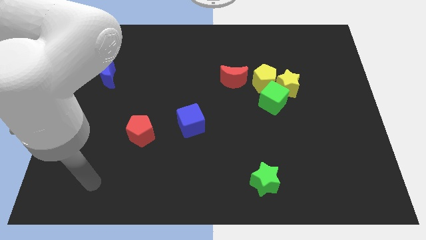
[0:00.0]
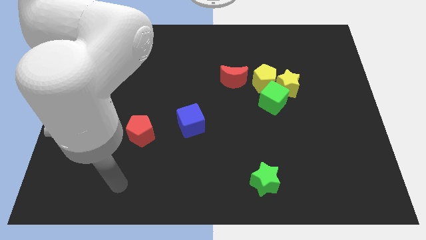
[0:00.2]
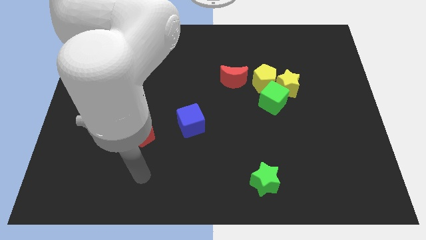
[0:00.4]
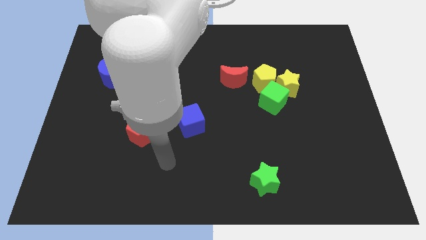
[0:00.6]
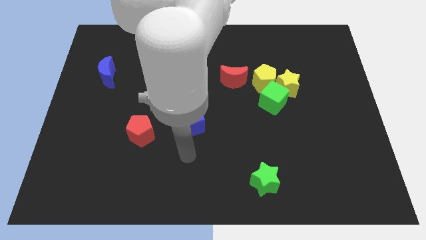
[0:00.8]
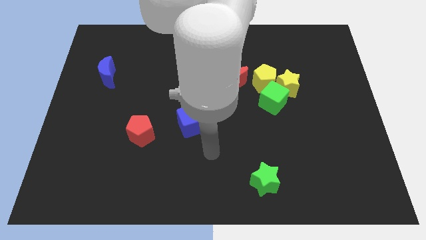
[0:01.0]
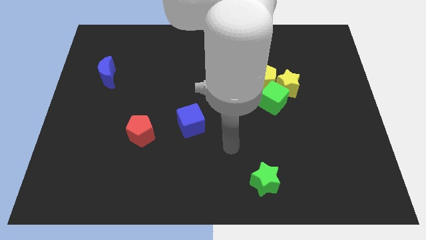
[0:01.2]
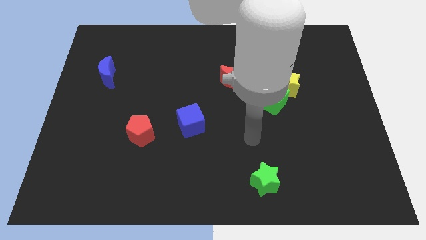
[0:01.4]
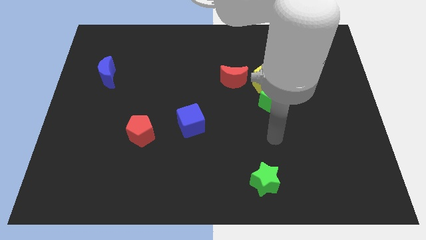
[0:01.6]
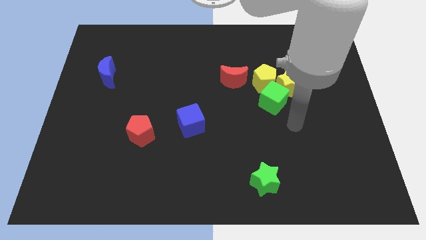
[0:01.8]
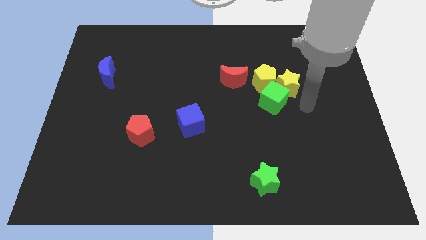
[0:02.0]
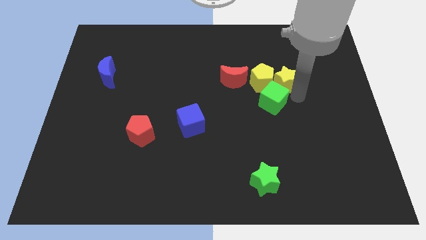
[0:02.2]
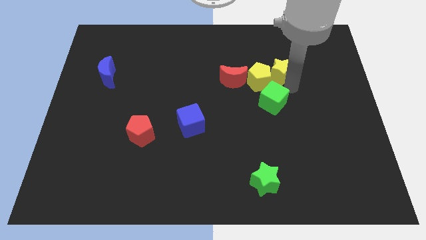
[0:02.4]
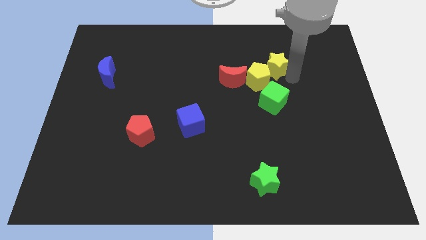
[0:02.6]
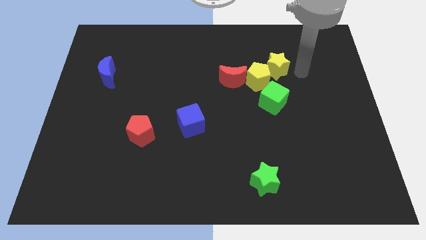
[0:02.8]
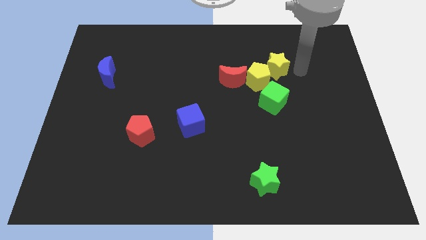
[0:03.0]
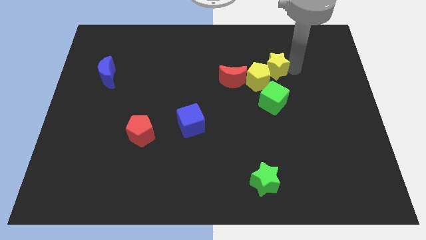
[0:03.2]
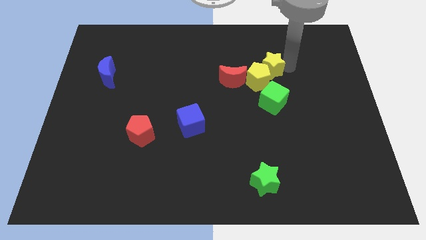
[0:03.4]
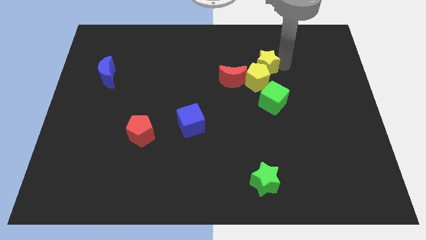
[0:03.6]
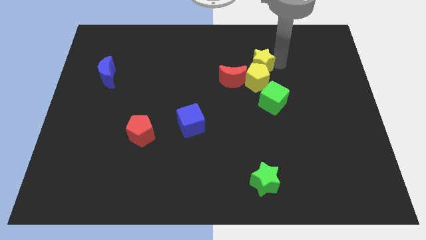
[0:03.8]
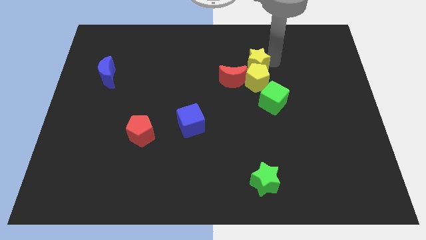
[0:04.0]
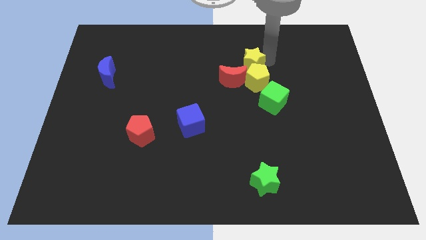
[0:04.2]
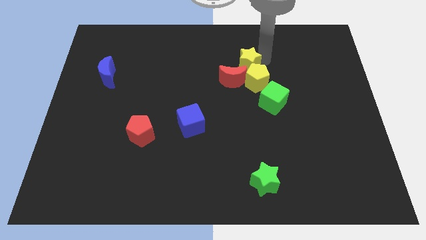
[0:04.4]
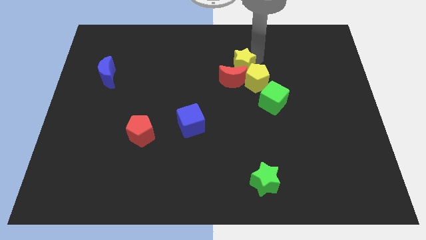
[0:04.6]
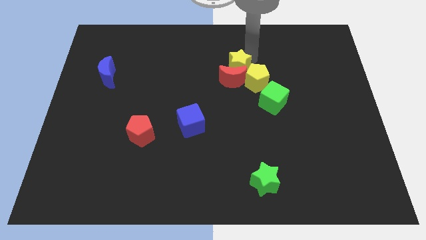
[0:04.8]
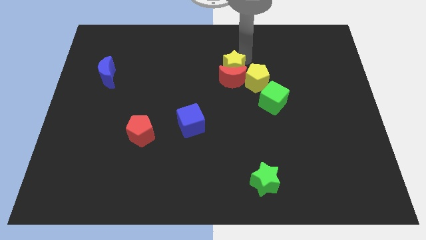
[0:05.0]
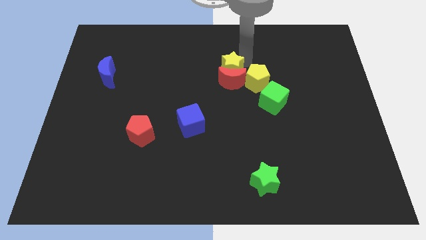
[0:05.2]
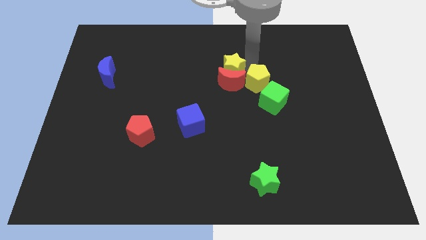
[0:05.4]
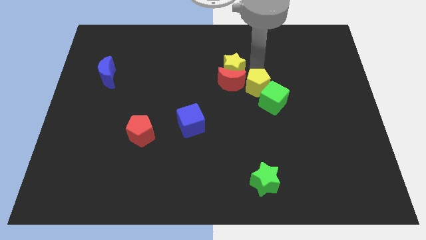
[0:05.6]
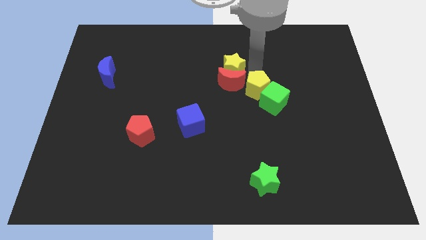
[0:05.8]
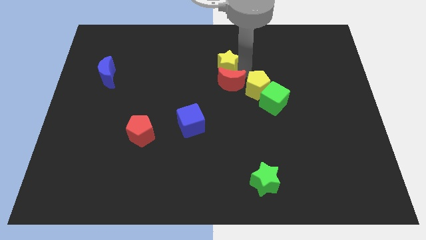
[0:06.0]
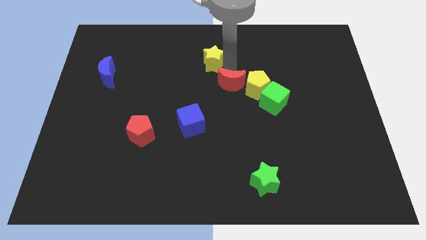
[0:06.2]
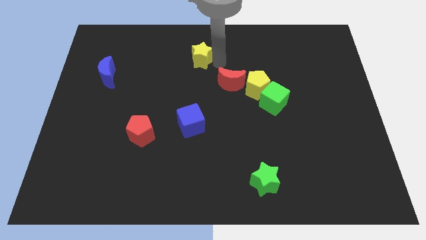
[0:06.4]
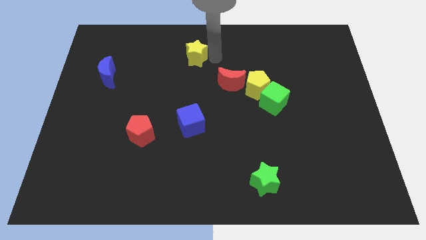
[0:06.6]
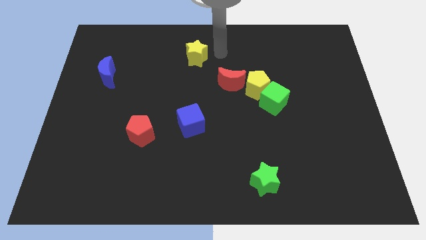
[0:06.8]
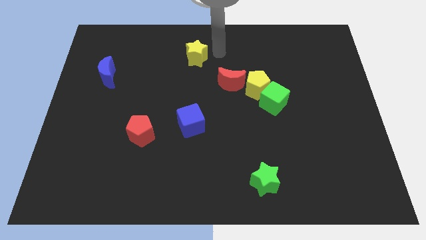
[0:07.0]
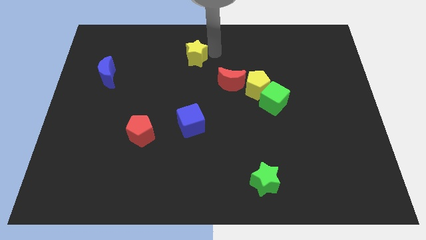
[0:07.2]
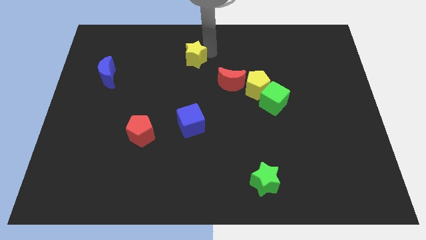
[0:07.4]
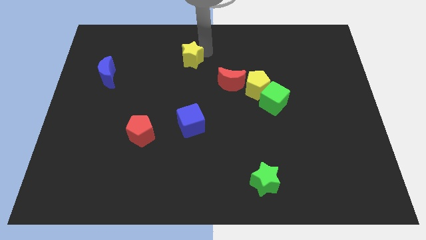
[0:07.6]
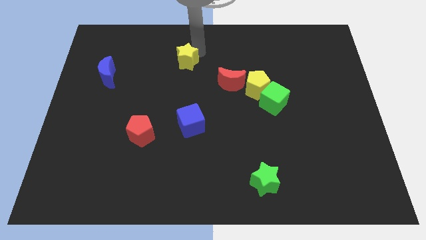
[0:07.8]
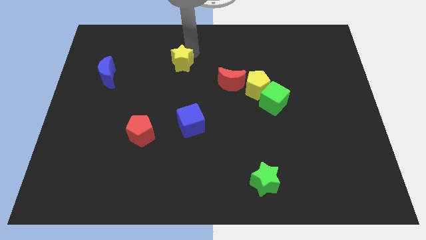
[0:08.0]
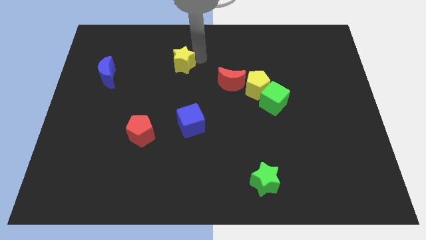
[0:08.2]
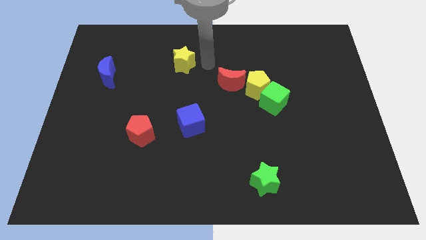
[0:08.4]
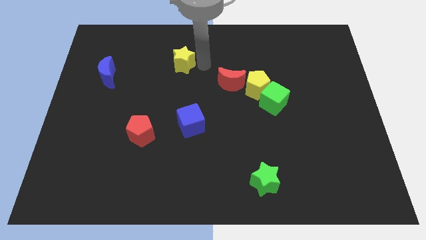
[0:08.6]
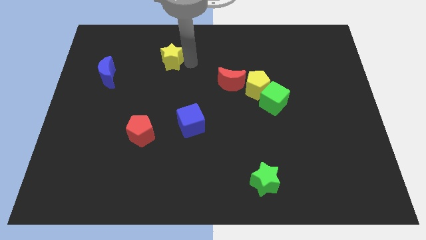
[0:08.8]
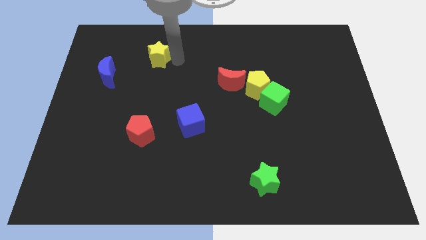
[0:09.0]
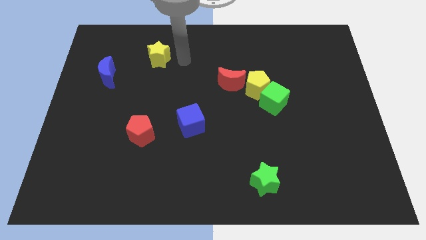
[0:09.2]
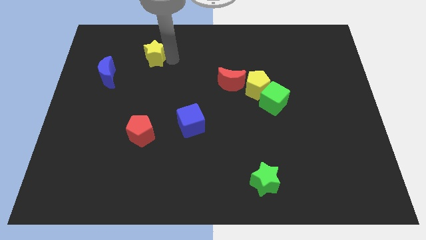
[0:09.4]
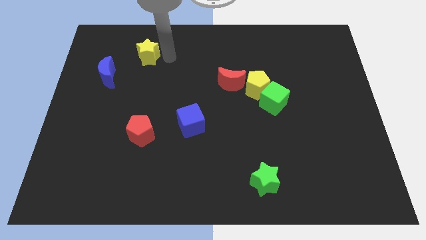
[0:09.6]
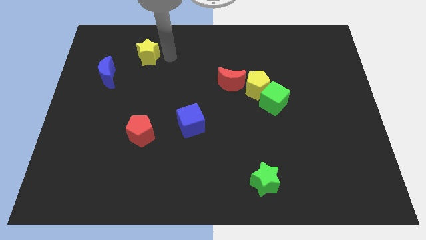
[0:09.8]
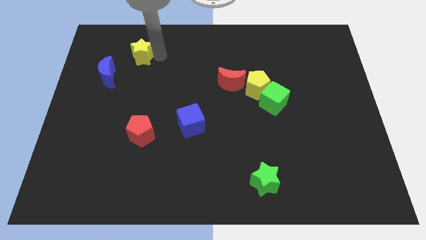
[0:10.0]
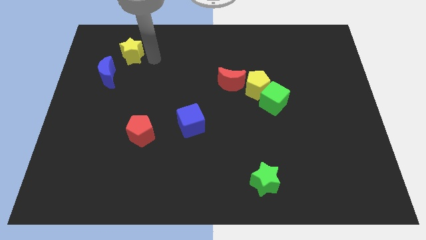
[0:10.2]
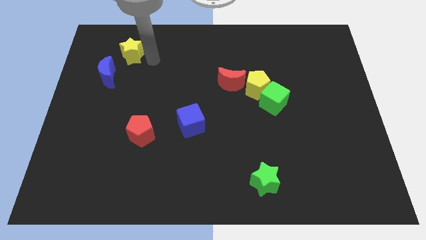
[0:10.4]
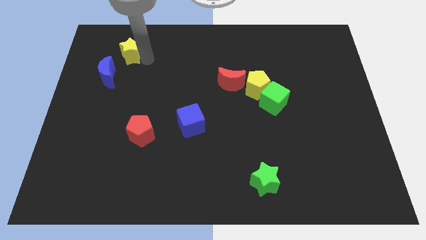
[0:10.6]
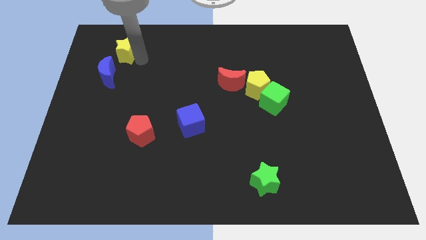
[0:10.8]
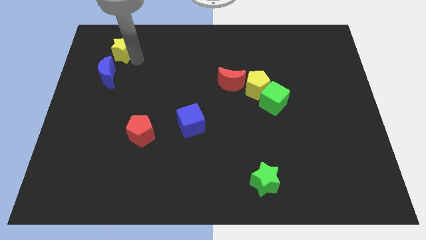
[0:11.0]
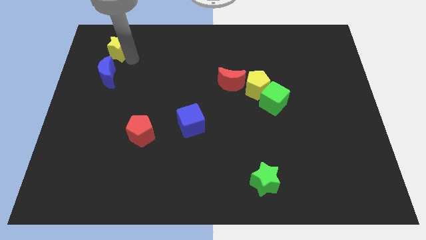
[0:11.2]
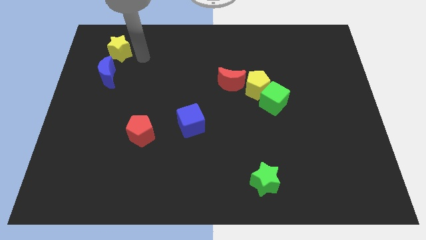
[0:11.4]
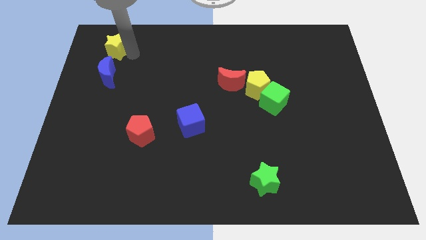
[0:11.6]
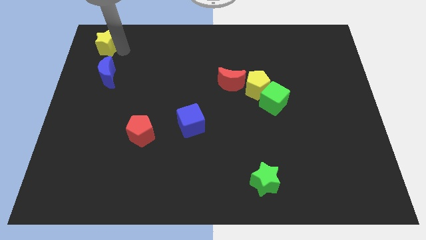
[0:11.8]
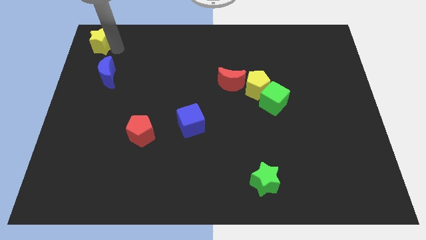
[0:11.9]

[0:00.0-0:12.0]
slide the yellow star to the upper left corner

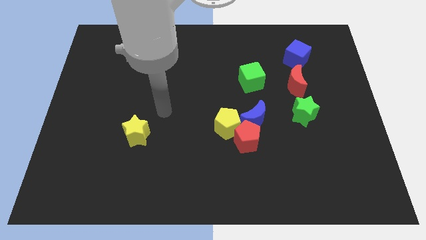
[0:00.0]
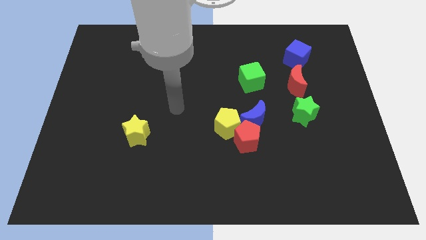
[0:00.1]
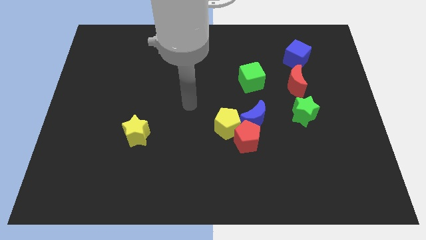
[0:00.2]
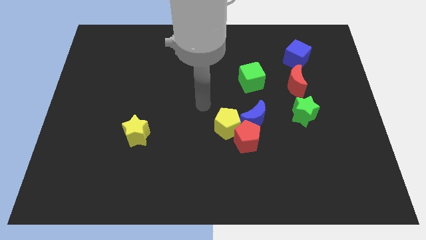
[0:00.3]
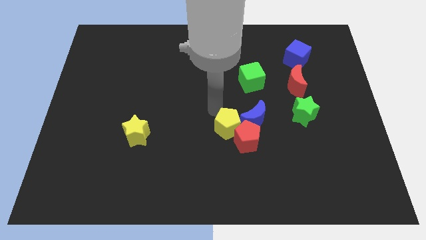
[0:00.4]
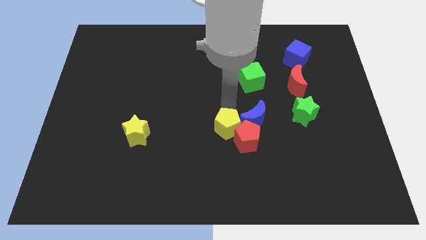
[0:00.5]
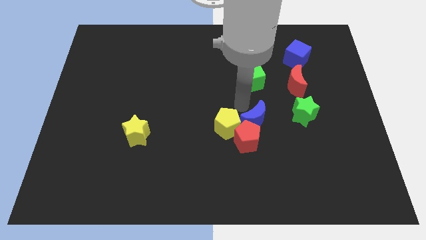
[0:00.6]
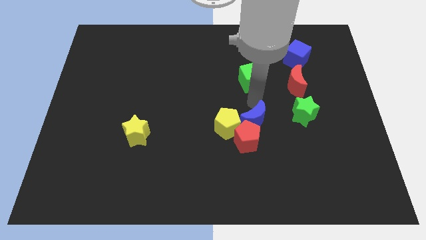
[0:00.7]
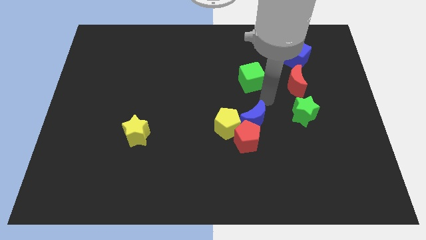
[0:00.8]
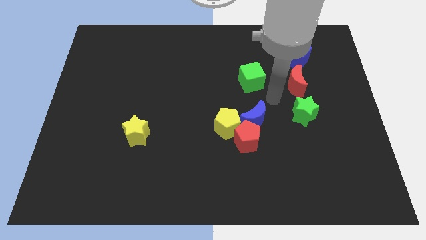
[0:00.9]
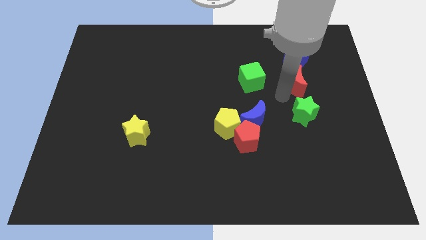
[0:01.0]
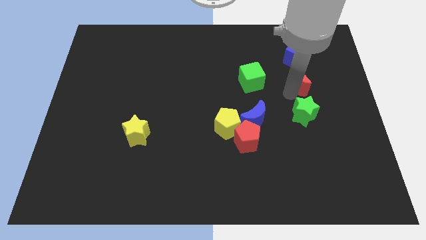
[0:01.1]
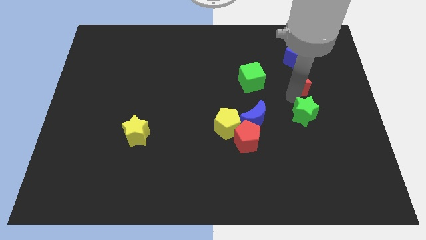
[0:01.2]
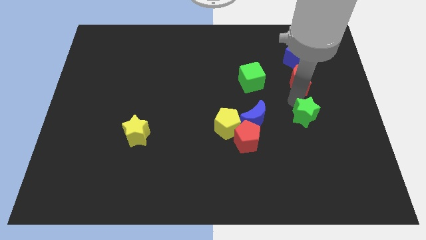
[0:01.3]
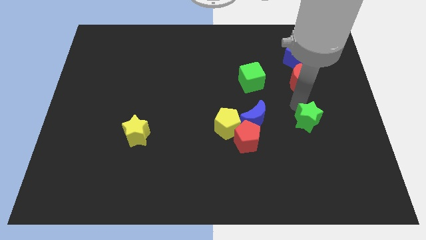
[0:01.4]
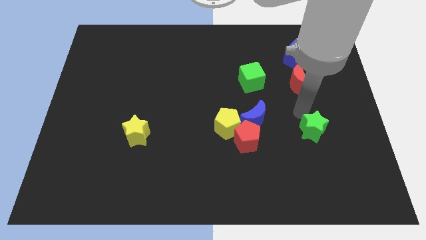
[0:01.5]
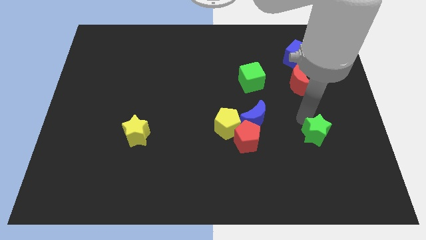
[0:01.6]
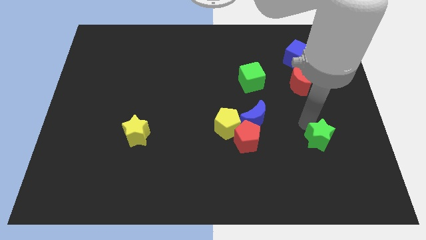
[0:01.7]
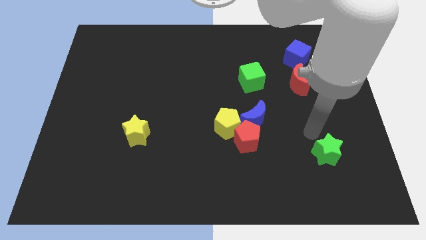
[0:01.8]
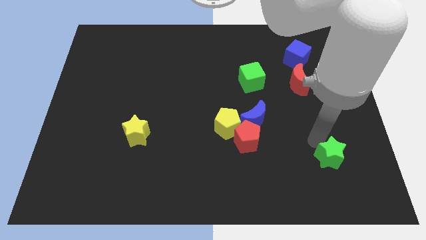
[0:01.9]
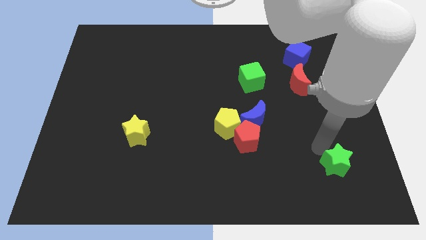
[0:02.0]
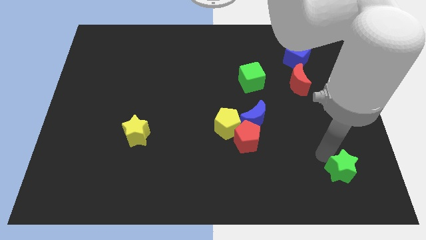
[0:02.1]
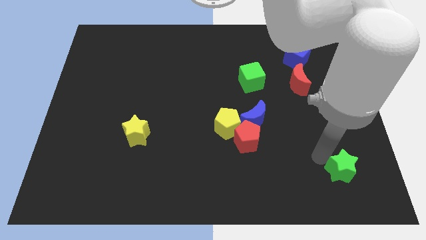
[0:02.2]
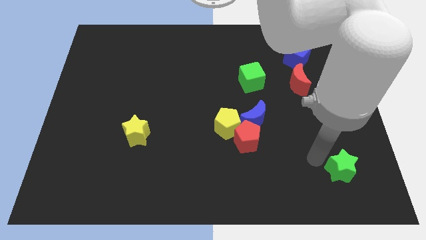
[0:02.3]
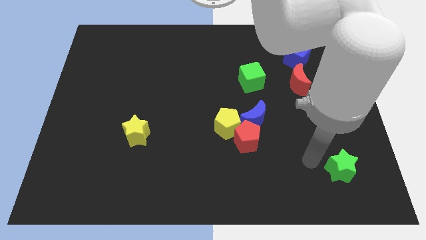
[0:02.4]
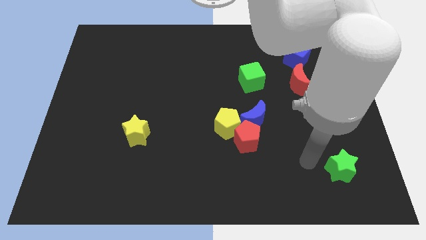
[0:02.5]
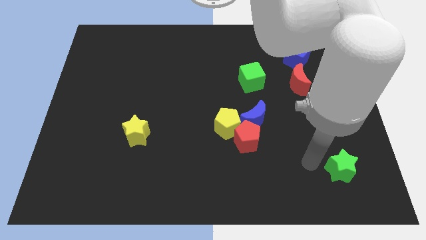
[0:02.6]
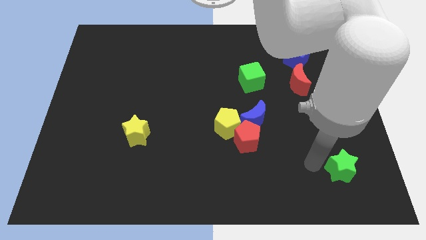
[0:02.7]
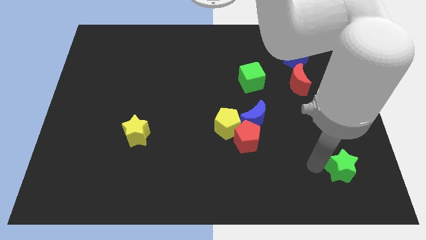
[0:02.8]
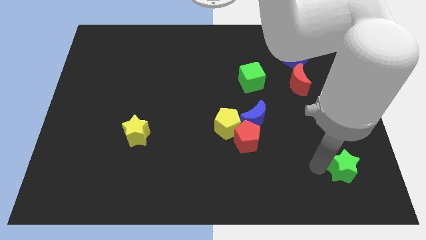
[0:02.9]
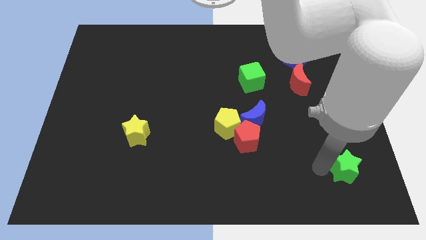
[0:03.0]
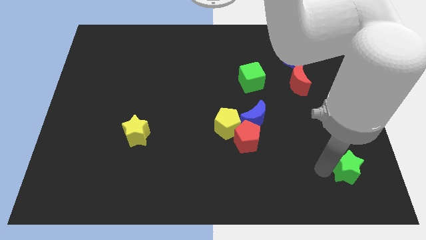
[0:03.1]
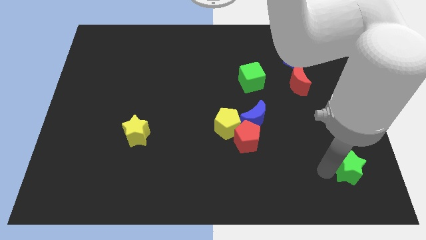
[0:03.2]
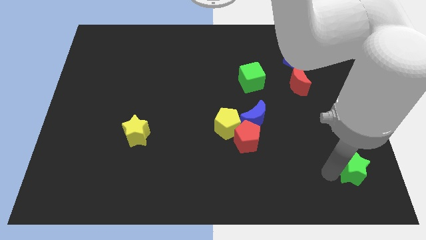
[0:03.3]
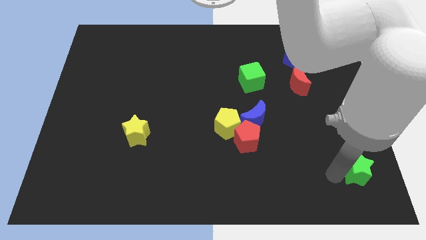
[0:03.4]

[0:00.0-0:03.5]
move the green star to the bottom right corner
